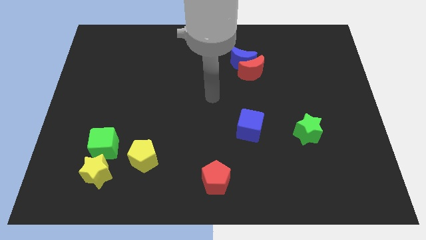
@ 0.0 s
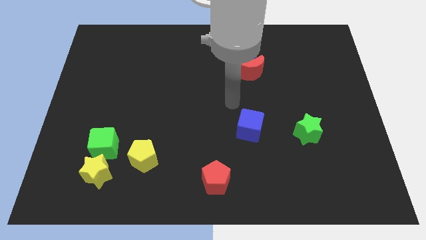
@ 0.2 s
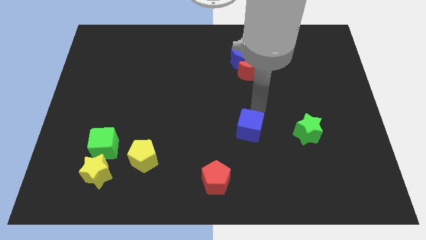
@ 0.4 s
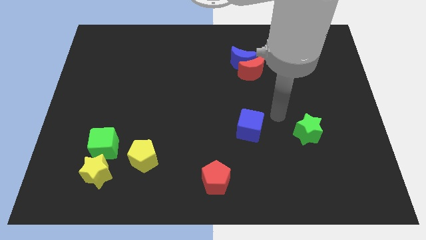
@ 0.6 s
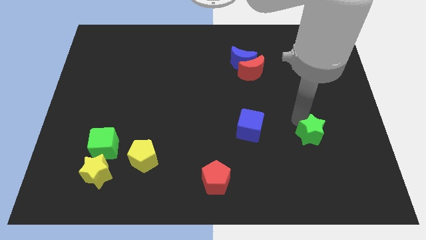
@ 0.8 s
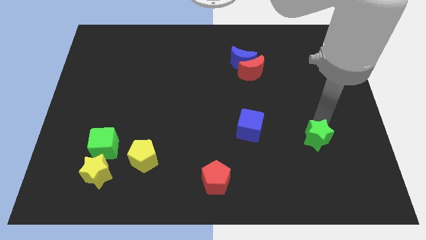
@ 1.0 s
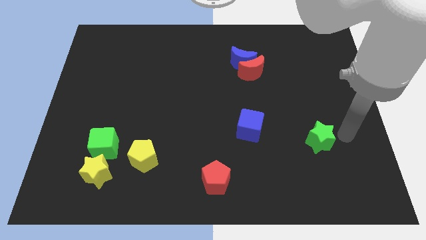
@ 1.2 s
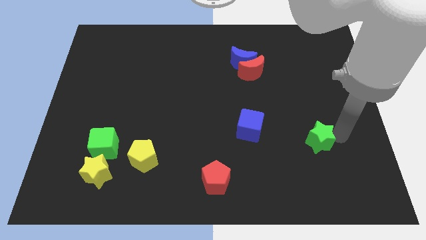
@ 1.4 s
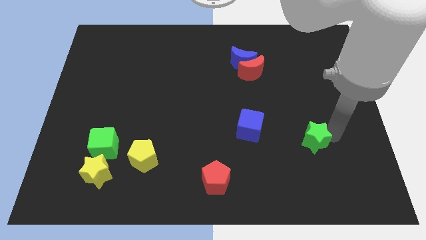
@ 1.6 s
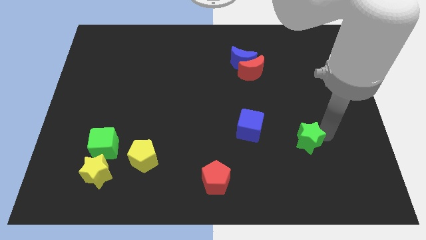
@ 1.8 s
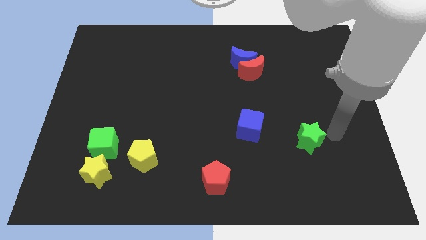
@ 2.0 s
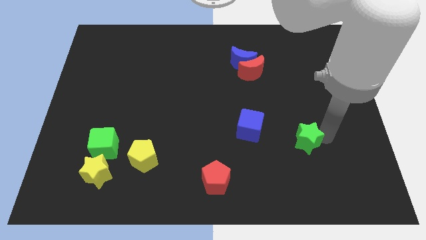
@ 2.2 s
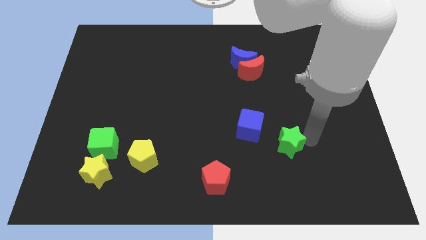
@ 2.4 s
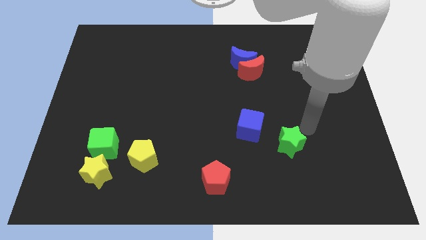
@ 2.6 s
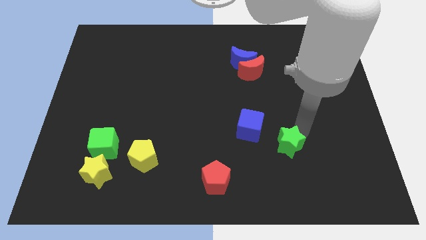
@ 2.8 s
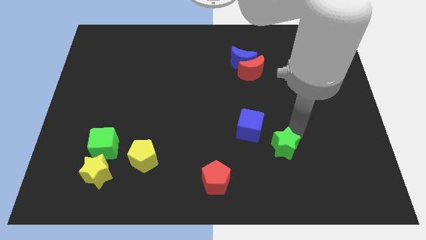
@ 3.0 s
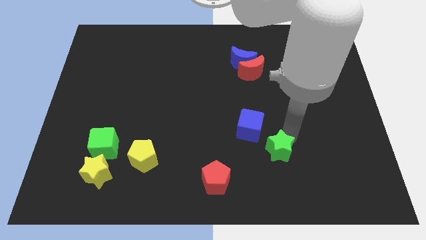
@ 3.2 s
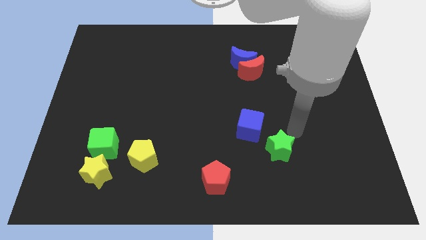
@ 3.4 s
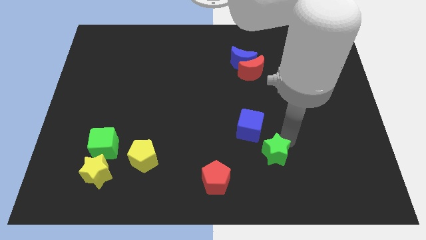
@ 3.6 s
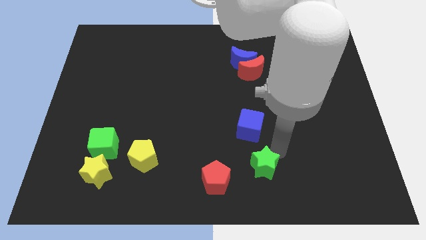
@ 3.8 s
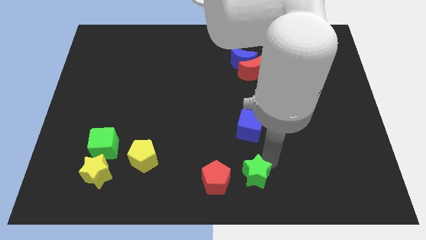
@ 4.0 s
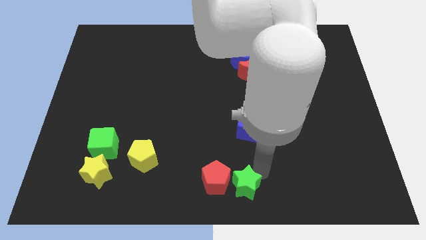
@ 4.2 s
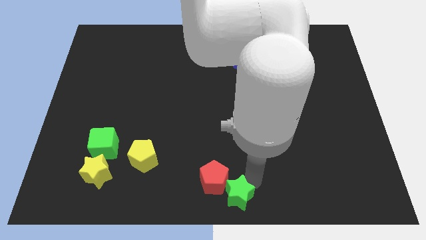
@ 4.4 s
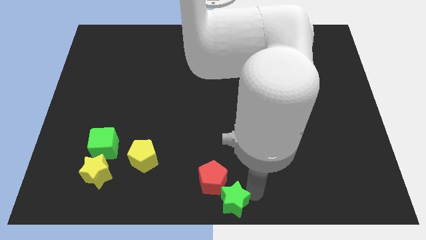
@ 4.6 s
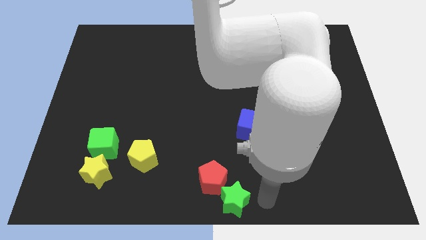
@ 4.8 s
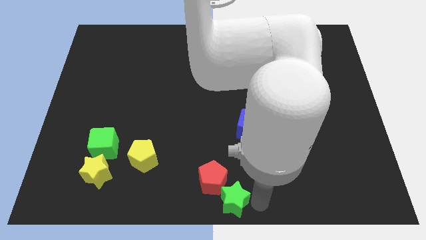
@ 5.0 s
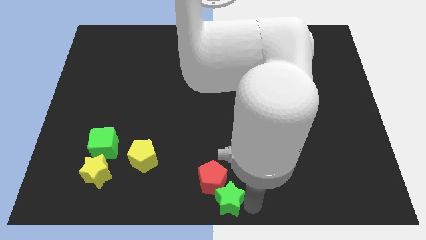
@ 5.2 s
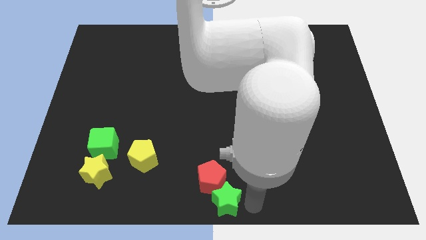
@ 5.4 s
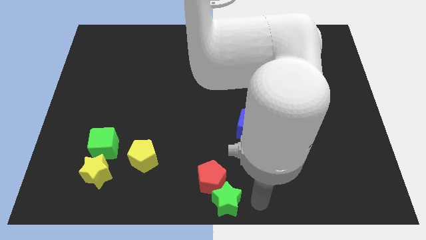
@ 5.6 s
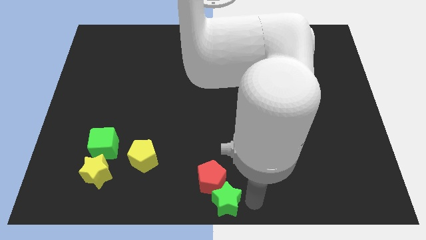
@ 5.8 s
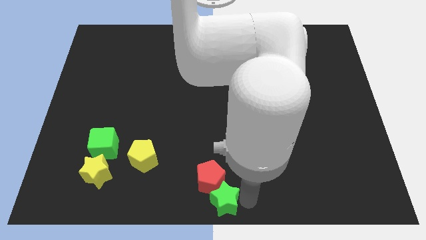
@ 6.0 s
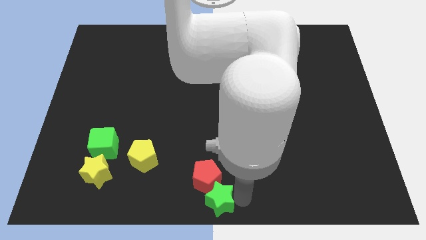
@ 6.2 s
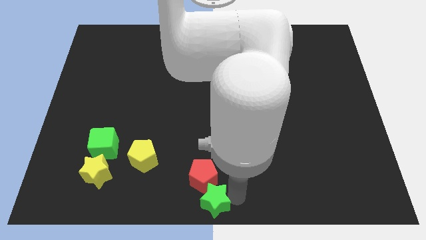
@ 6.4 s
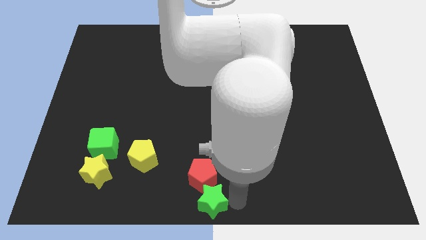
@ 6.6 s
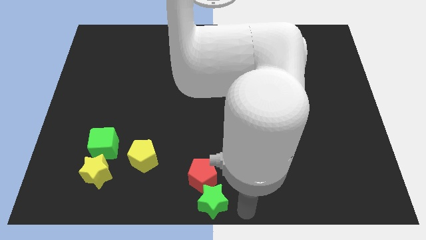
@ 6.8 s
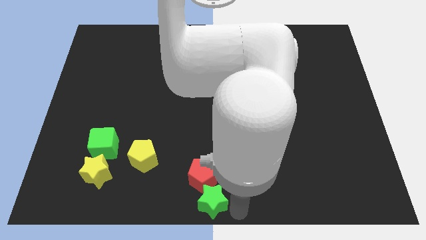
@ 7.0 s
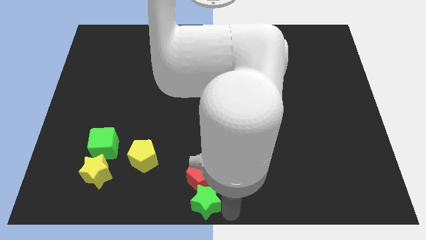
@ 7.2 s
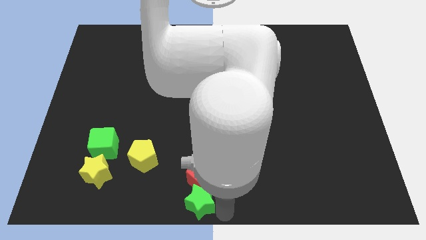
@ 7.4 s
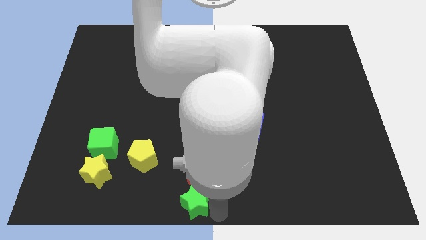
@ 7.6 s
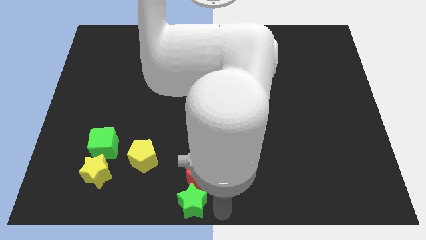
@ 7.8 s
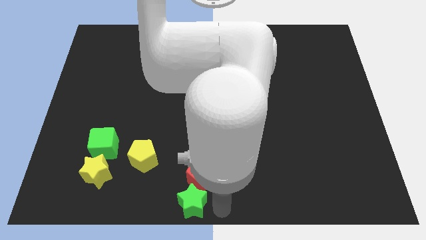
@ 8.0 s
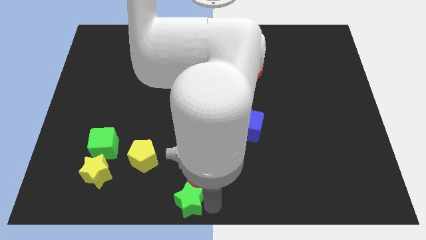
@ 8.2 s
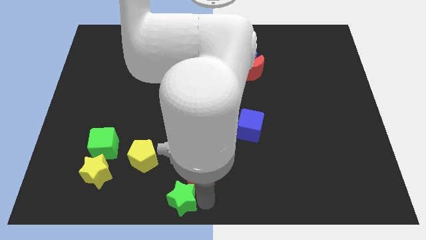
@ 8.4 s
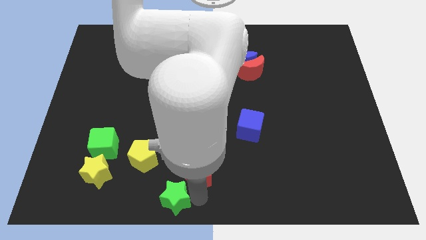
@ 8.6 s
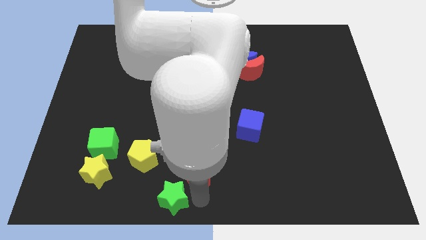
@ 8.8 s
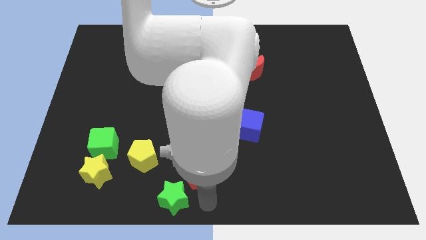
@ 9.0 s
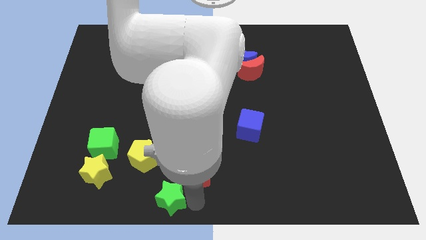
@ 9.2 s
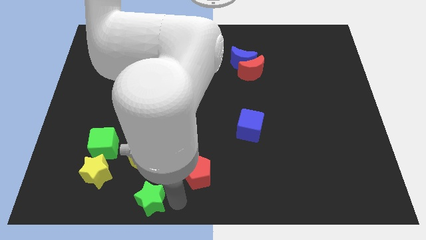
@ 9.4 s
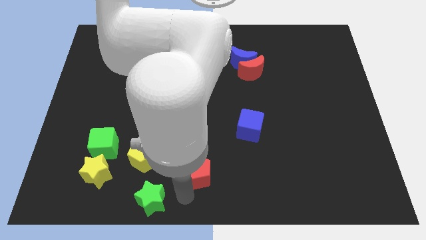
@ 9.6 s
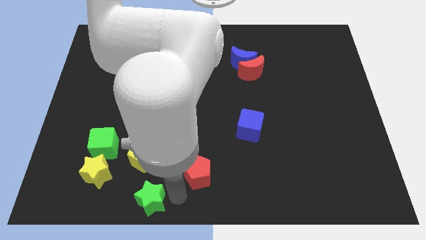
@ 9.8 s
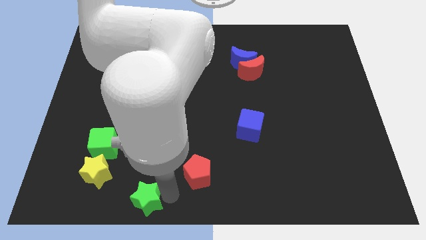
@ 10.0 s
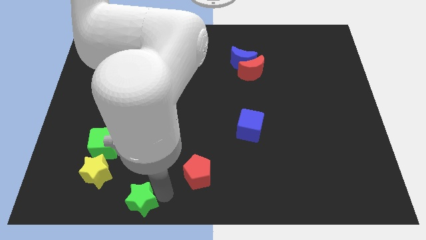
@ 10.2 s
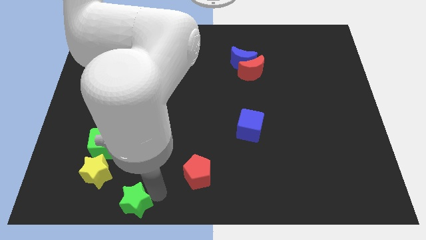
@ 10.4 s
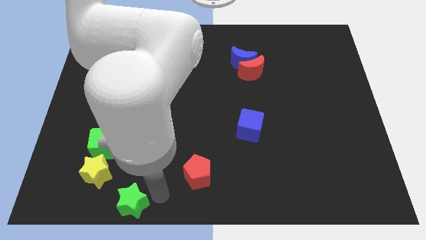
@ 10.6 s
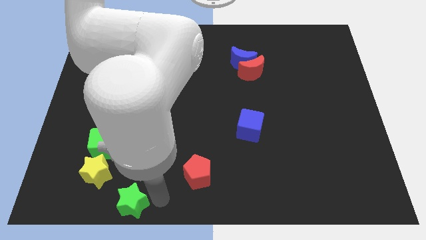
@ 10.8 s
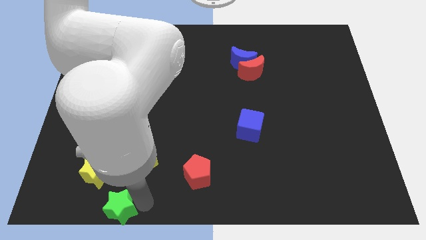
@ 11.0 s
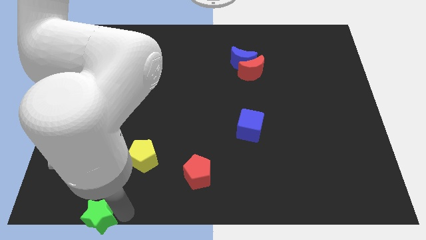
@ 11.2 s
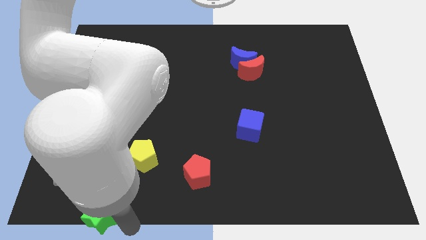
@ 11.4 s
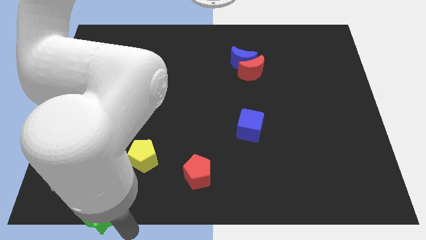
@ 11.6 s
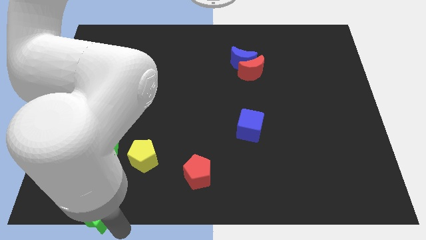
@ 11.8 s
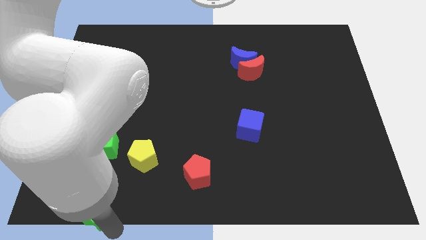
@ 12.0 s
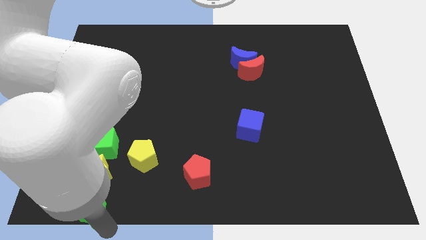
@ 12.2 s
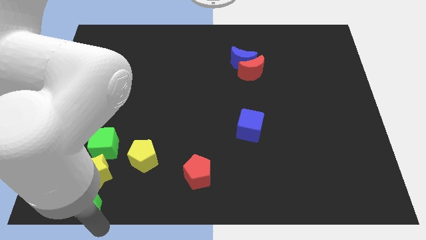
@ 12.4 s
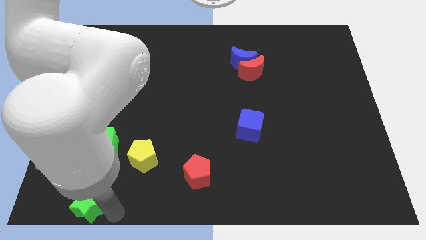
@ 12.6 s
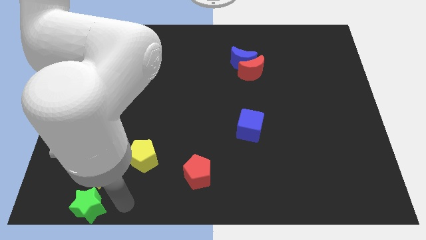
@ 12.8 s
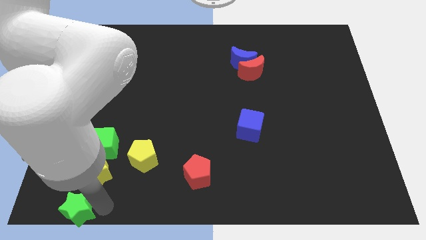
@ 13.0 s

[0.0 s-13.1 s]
slide the green star to the bottom left corner
